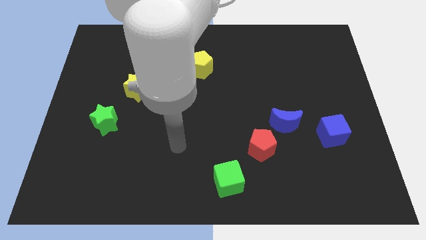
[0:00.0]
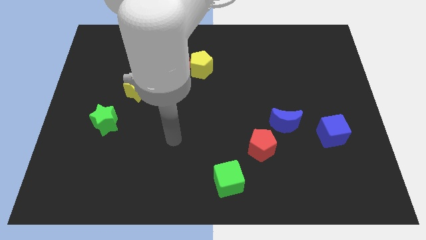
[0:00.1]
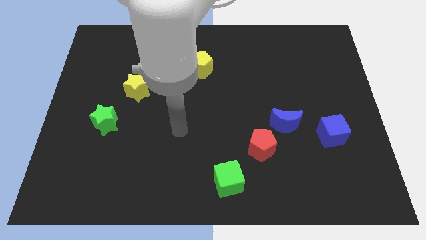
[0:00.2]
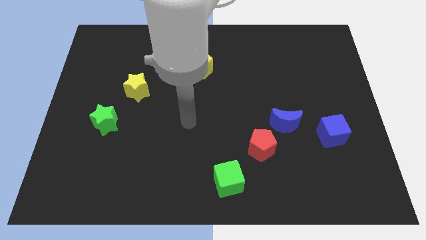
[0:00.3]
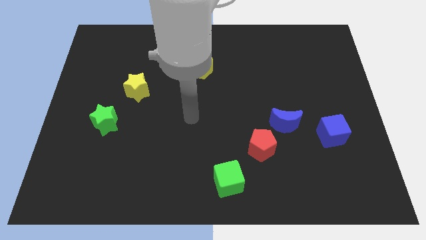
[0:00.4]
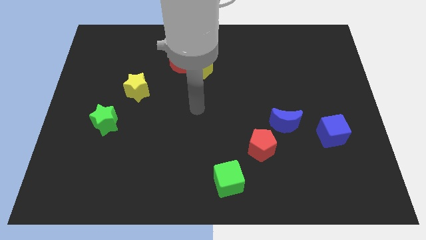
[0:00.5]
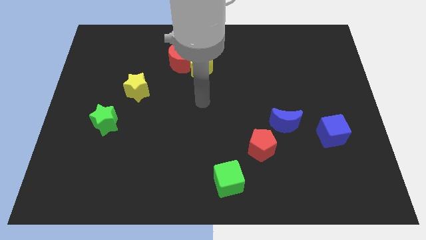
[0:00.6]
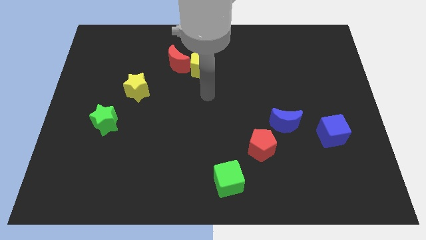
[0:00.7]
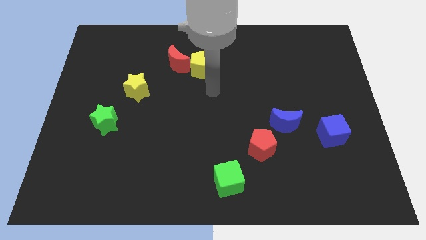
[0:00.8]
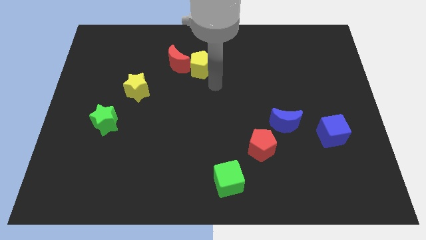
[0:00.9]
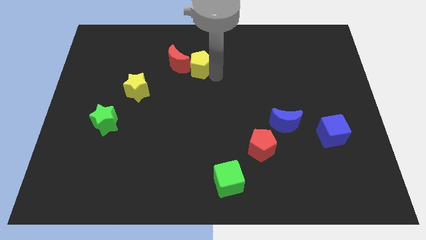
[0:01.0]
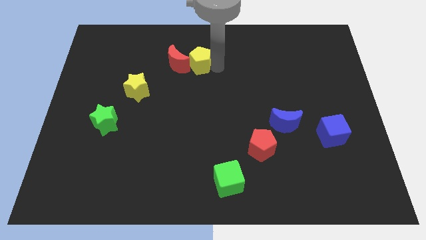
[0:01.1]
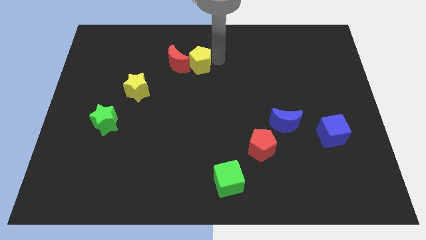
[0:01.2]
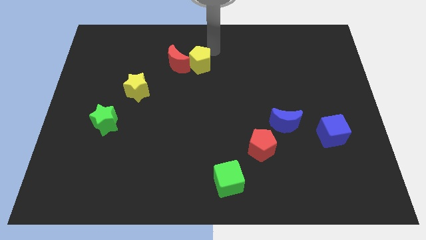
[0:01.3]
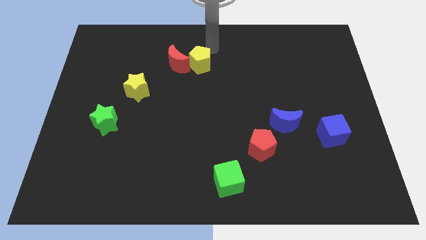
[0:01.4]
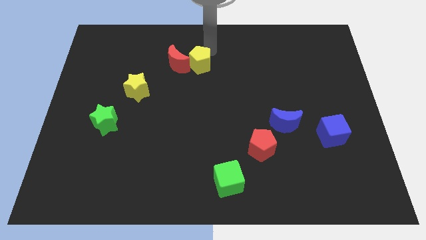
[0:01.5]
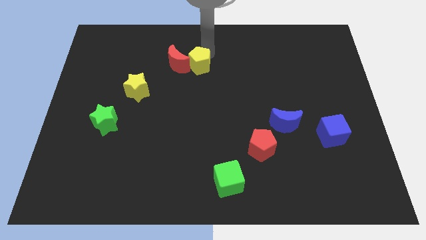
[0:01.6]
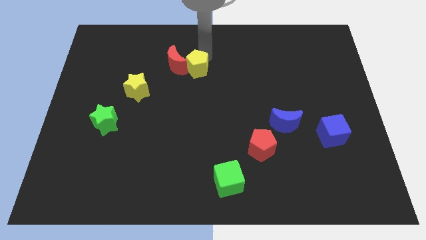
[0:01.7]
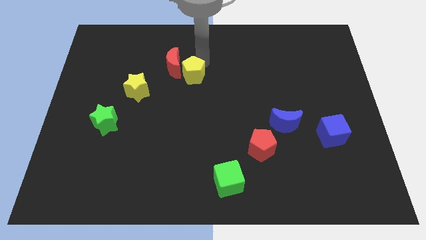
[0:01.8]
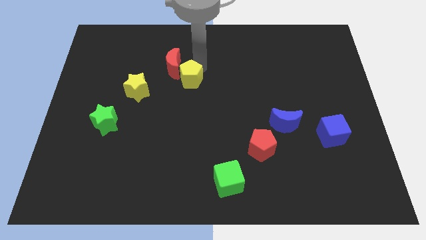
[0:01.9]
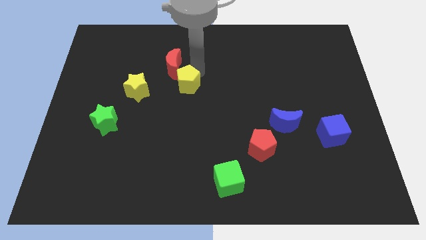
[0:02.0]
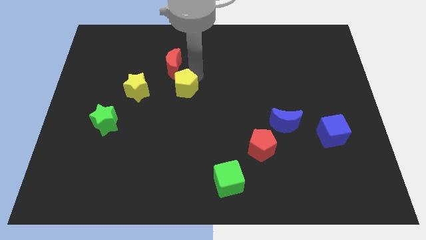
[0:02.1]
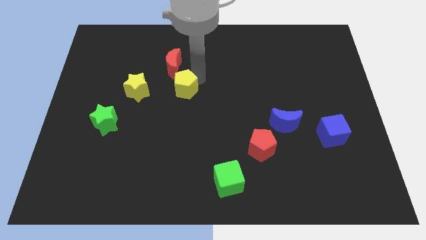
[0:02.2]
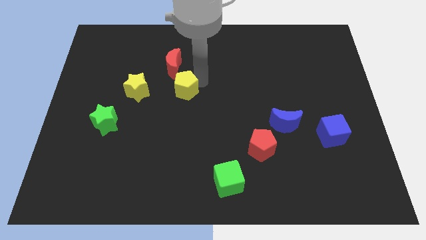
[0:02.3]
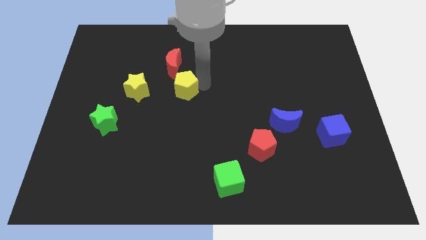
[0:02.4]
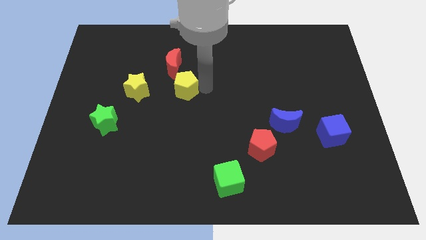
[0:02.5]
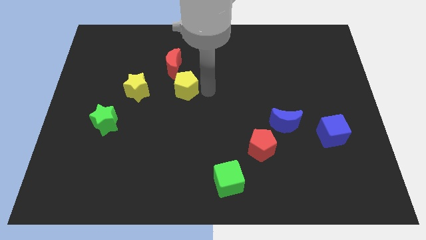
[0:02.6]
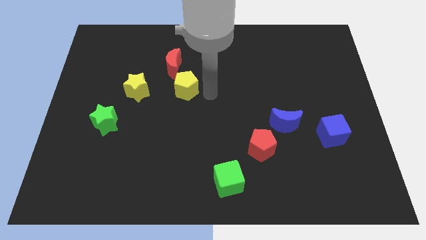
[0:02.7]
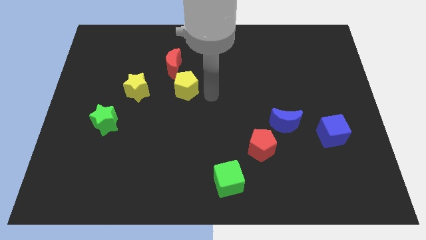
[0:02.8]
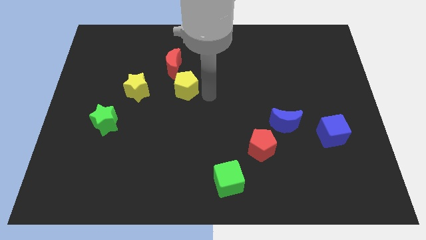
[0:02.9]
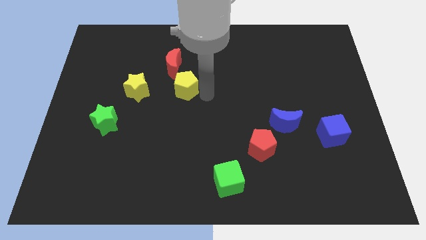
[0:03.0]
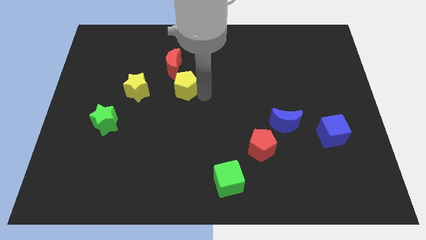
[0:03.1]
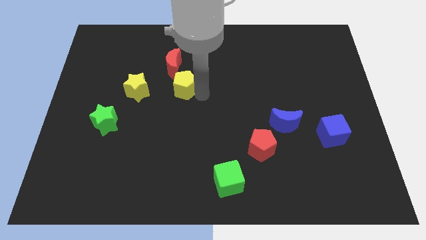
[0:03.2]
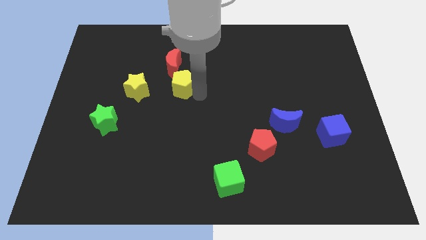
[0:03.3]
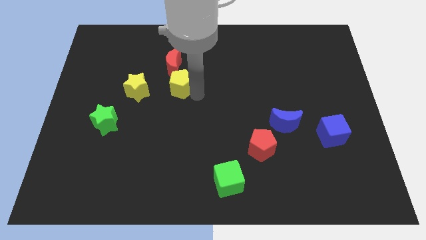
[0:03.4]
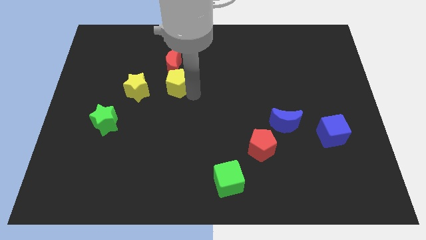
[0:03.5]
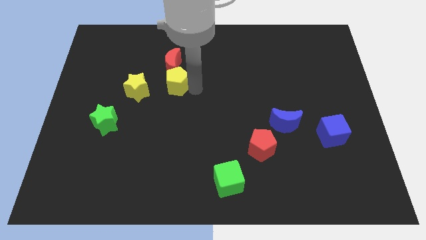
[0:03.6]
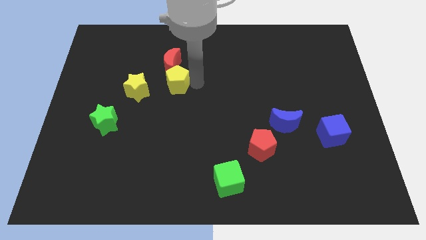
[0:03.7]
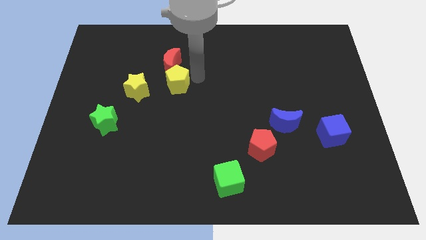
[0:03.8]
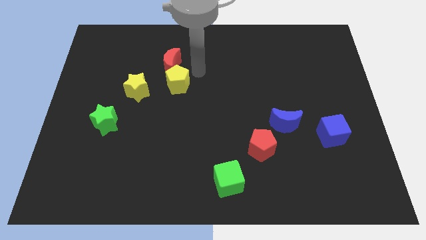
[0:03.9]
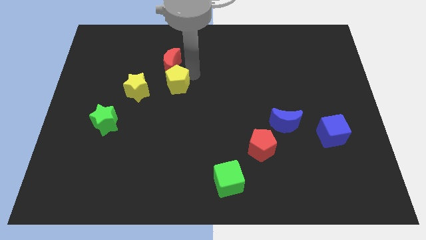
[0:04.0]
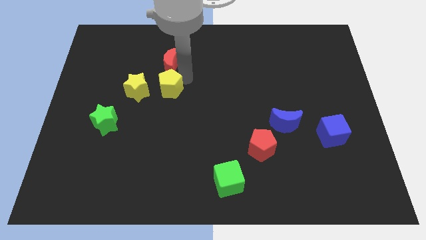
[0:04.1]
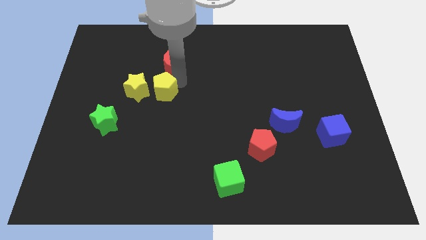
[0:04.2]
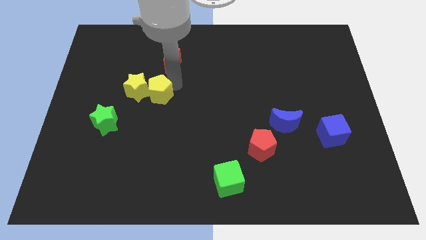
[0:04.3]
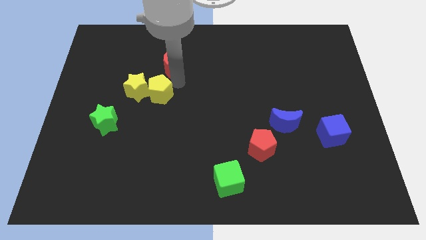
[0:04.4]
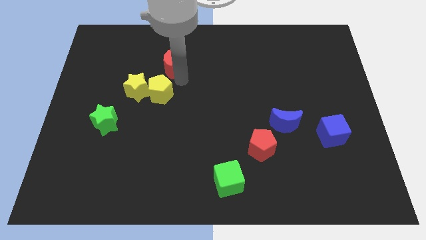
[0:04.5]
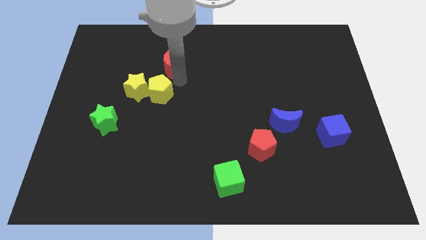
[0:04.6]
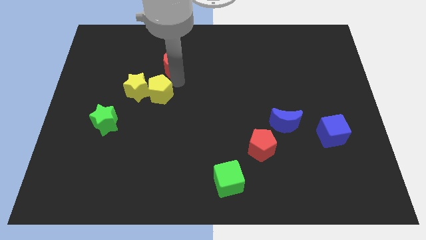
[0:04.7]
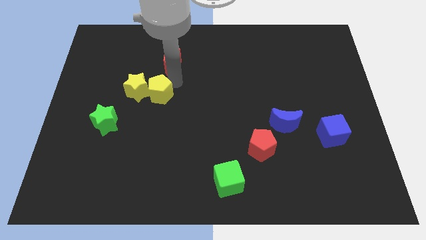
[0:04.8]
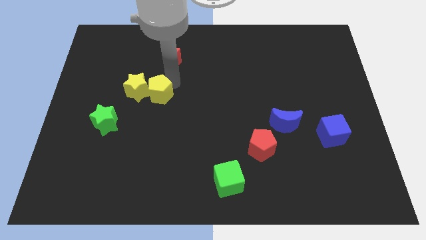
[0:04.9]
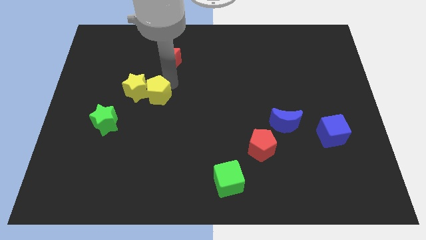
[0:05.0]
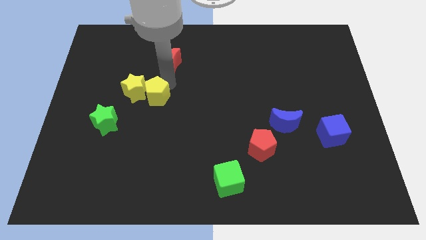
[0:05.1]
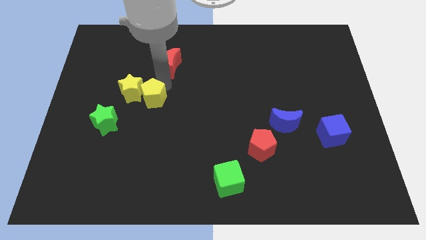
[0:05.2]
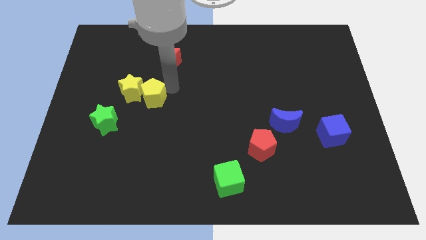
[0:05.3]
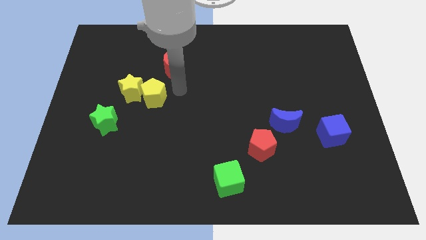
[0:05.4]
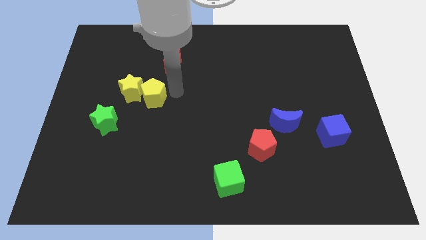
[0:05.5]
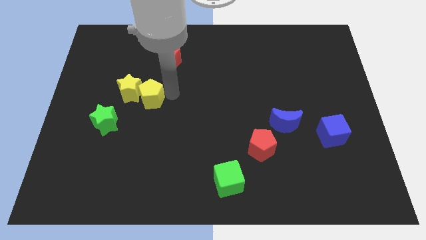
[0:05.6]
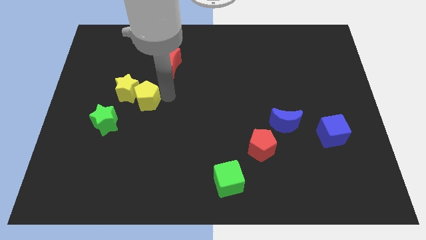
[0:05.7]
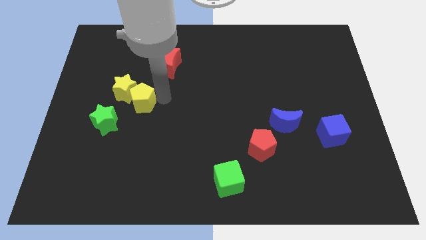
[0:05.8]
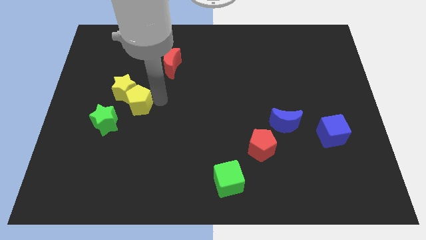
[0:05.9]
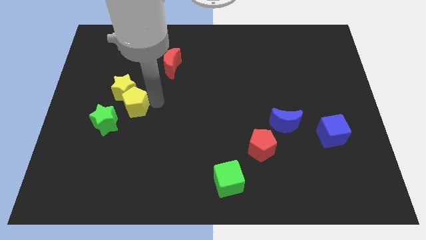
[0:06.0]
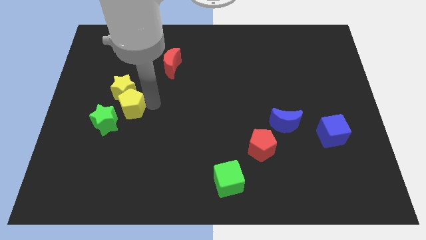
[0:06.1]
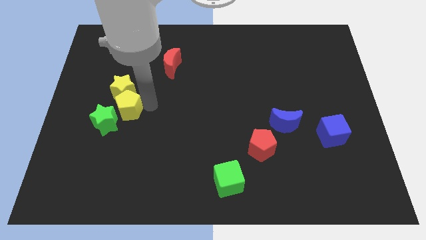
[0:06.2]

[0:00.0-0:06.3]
move the yellow pentagon to the bottom left side of the yellow star

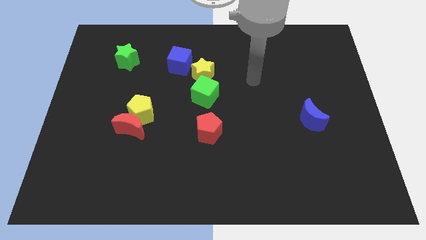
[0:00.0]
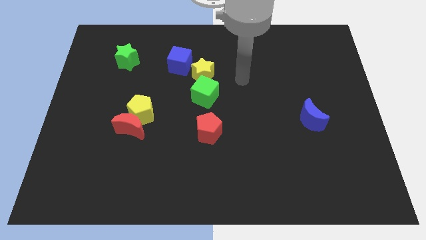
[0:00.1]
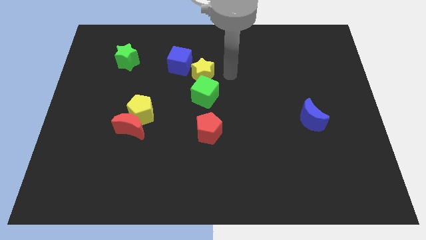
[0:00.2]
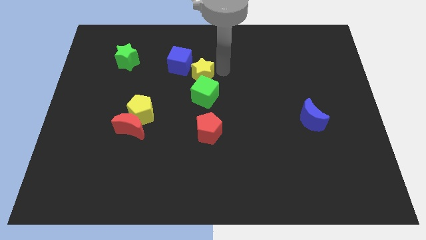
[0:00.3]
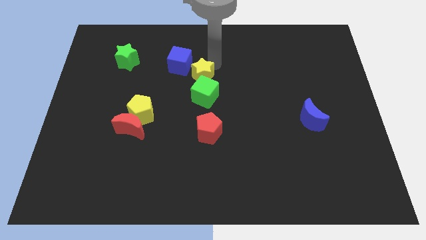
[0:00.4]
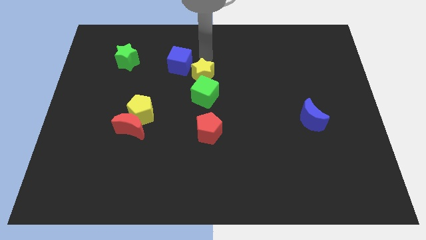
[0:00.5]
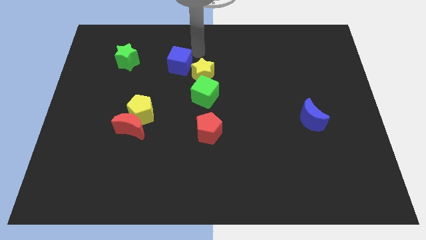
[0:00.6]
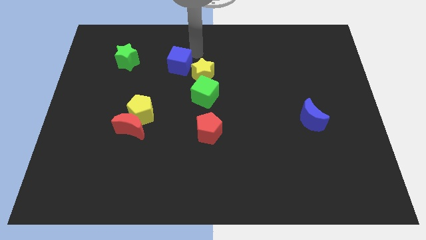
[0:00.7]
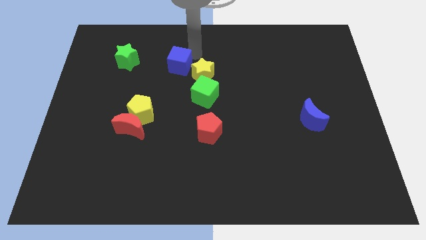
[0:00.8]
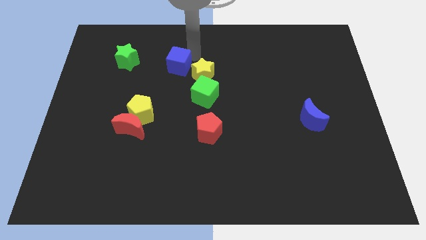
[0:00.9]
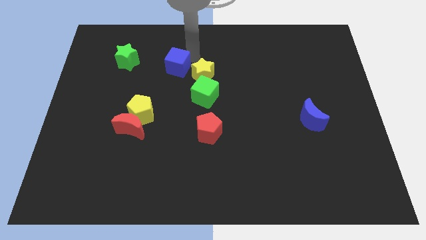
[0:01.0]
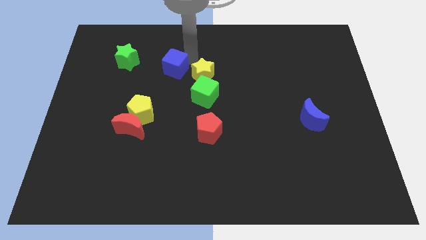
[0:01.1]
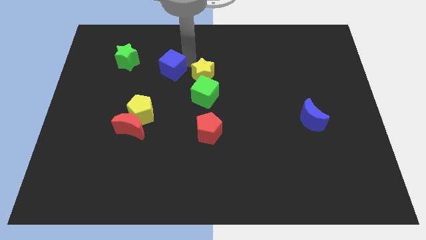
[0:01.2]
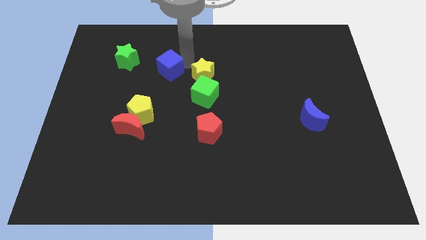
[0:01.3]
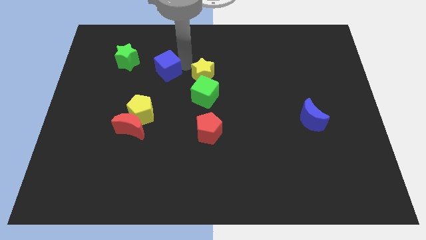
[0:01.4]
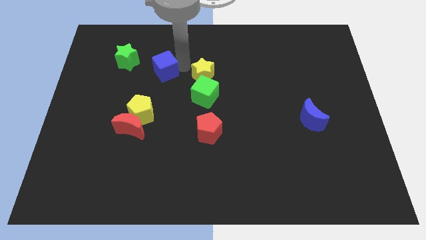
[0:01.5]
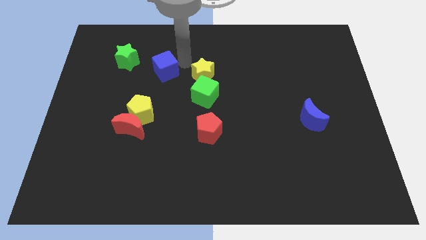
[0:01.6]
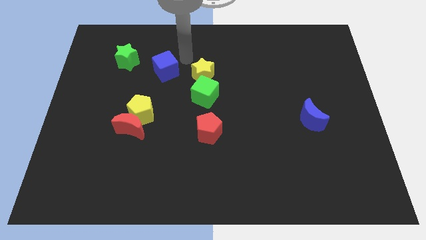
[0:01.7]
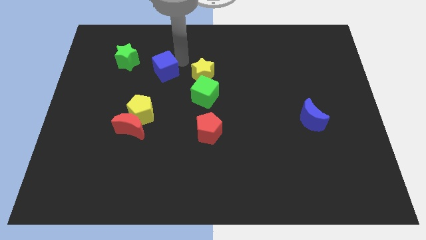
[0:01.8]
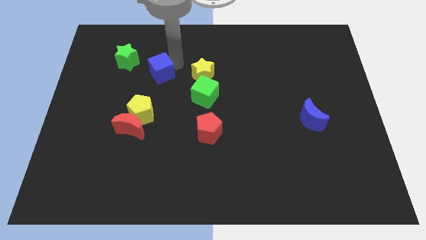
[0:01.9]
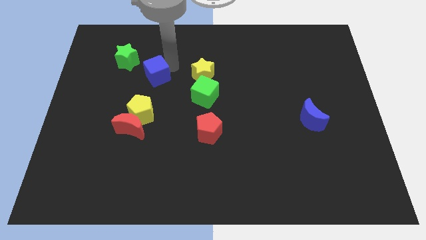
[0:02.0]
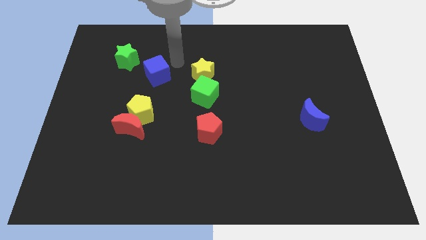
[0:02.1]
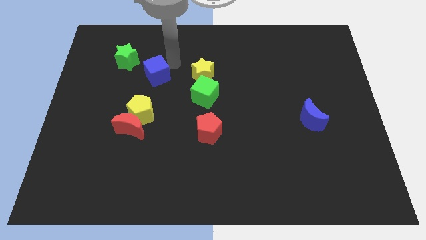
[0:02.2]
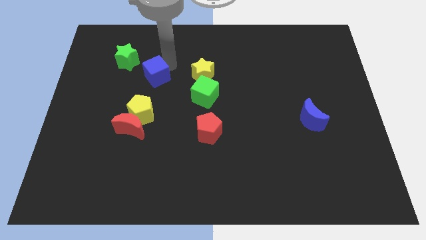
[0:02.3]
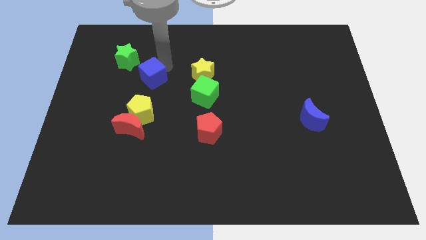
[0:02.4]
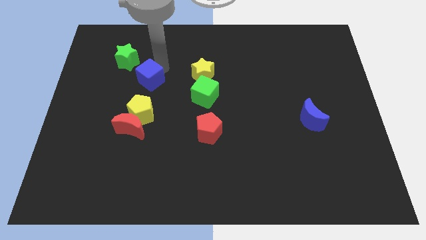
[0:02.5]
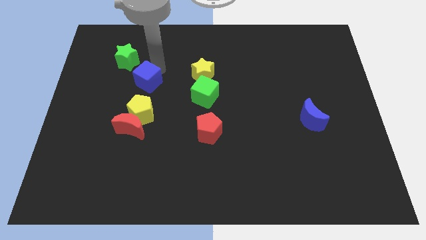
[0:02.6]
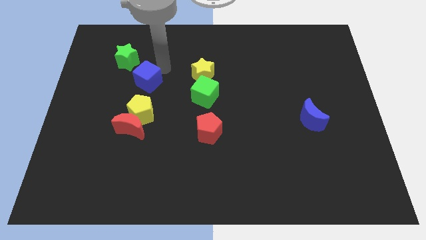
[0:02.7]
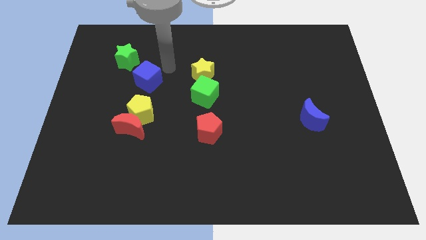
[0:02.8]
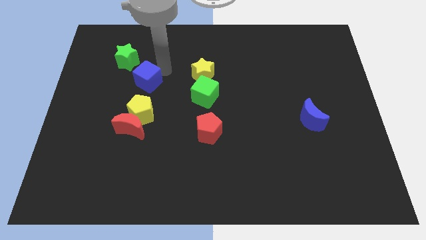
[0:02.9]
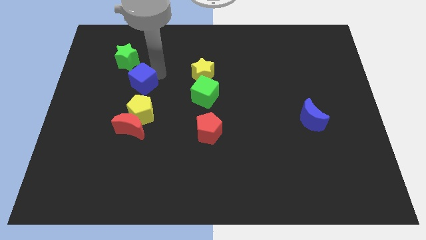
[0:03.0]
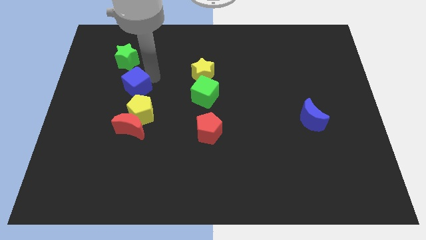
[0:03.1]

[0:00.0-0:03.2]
move the blue cube to the top left of the yellow pentagon
